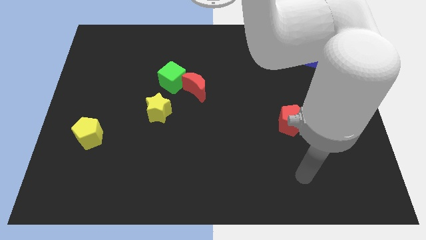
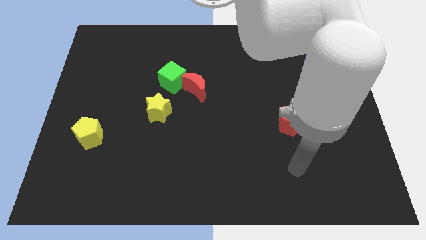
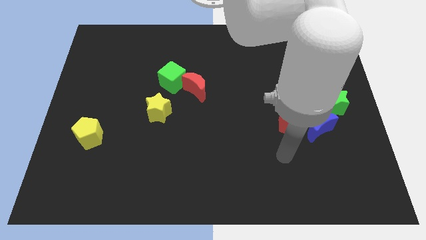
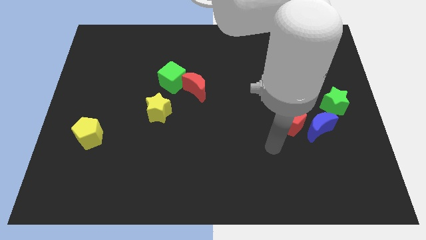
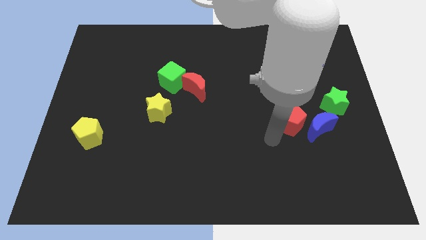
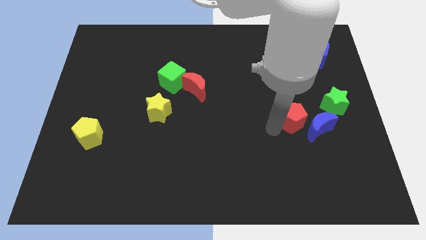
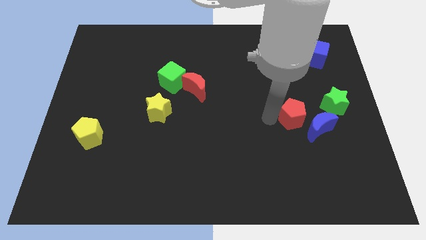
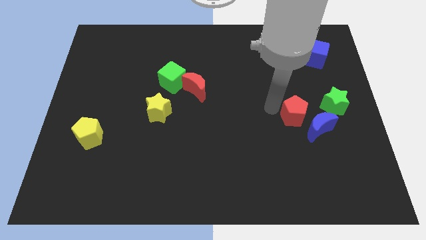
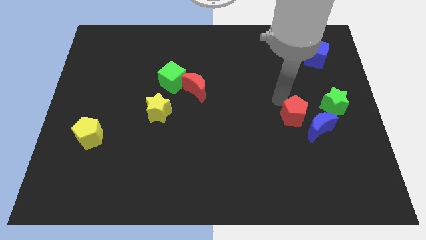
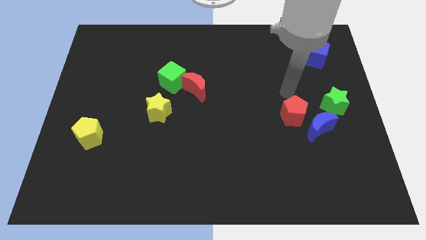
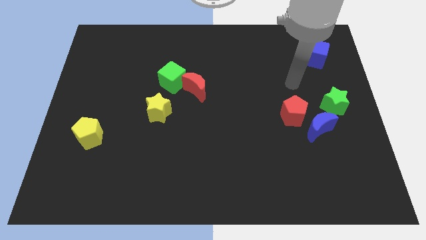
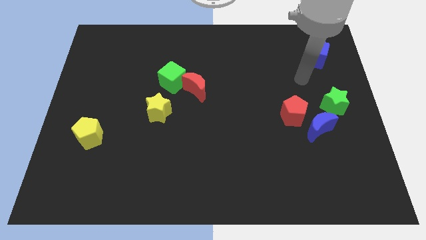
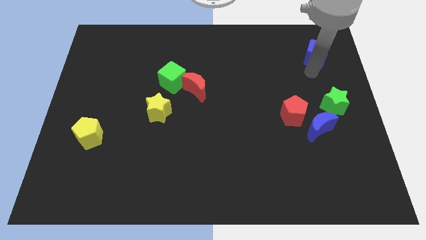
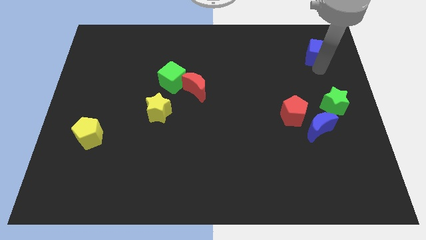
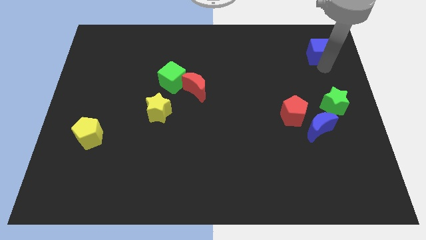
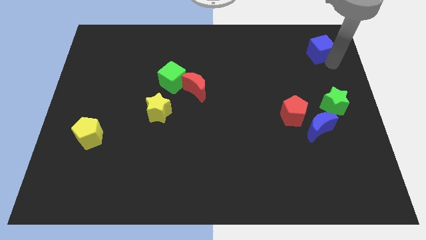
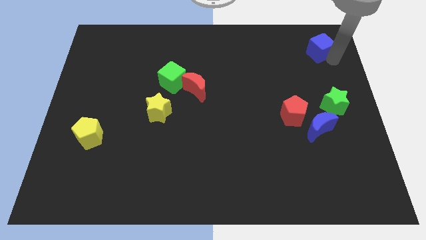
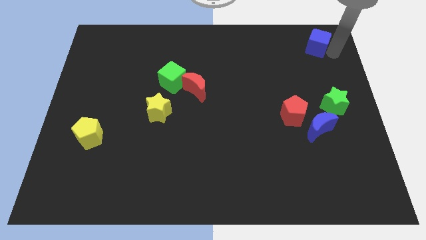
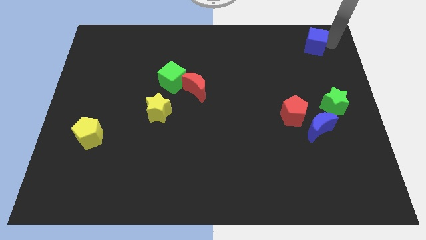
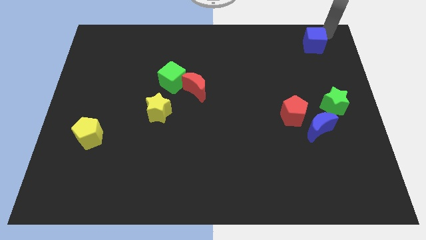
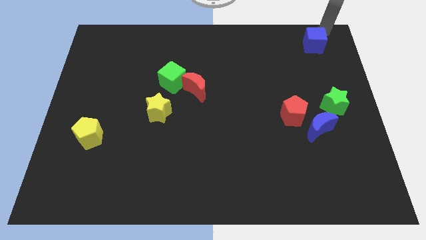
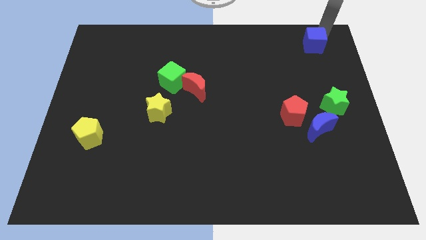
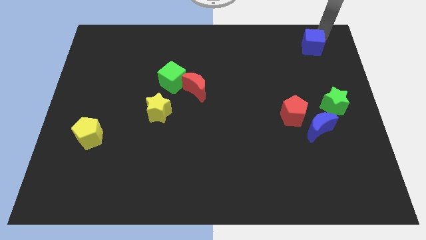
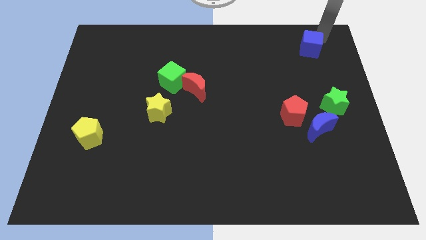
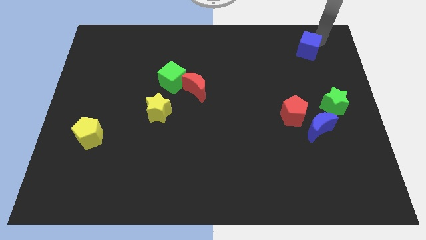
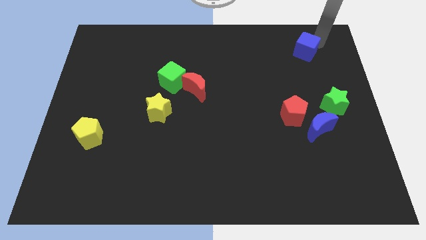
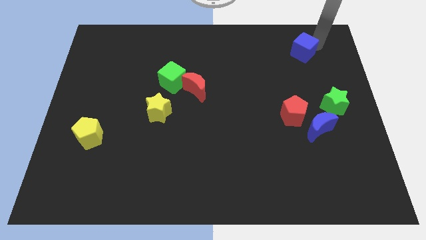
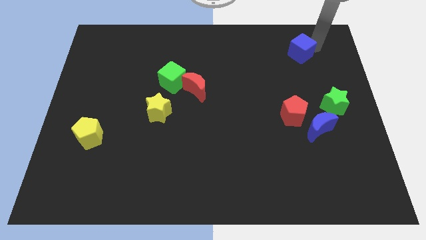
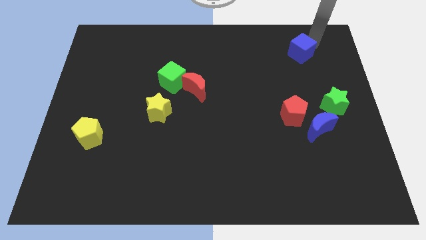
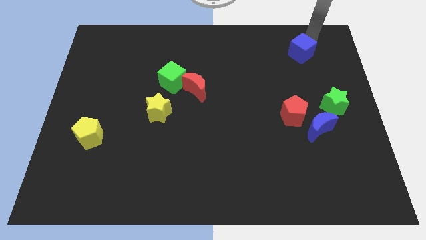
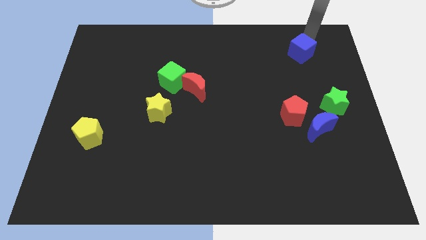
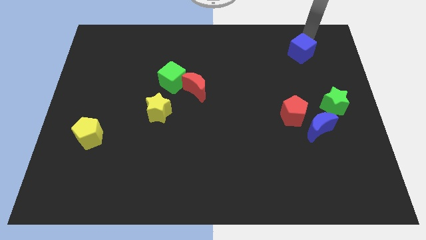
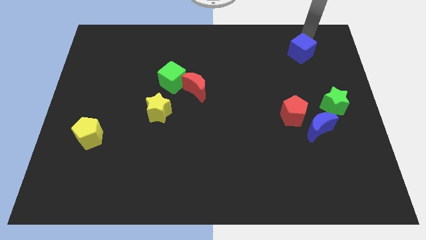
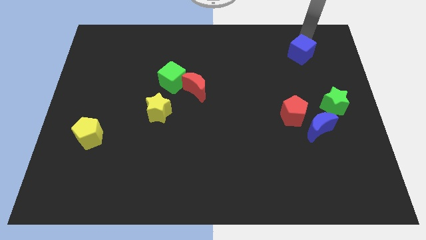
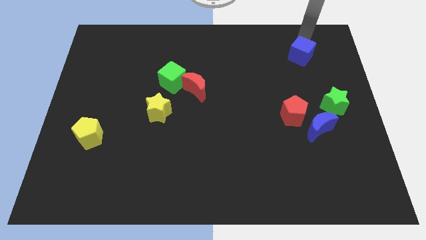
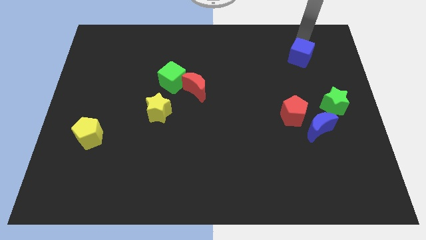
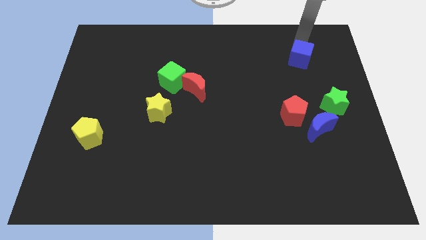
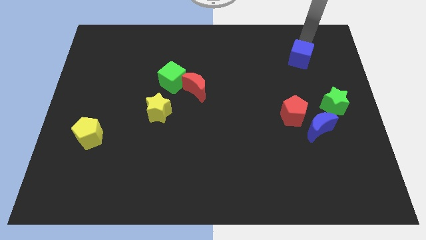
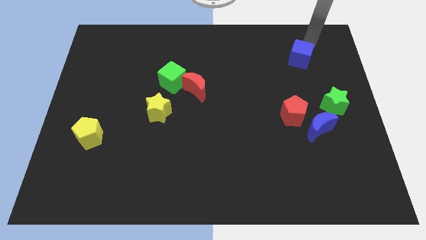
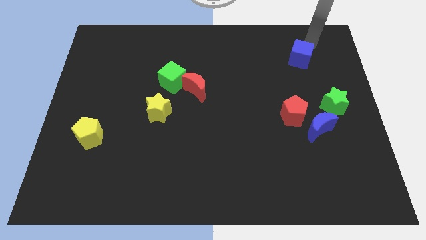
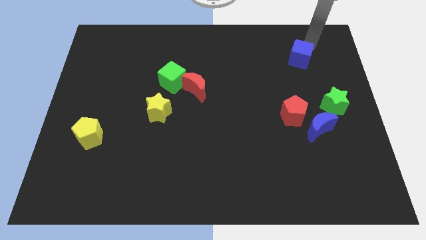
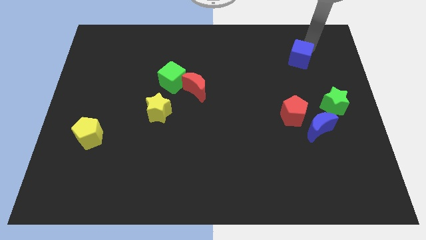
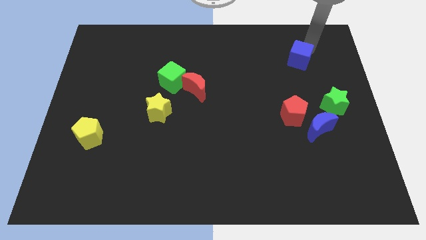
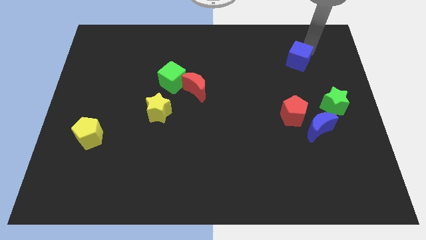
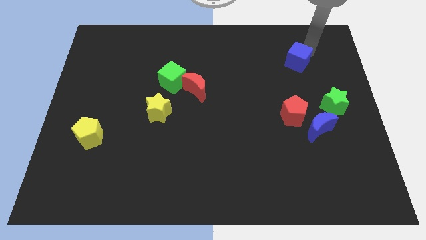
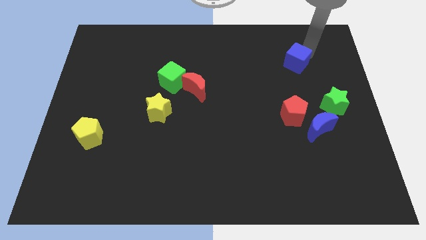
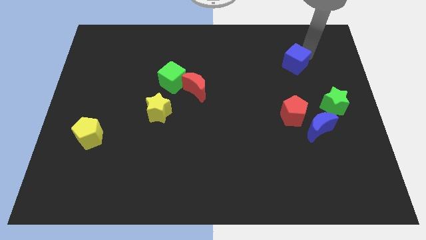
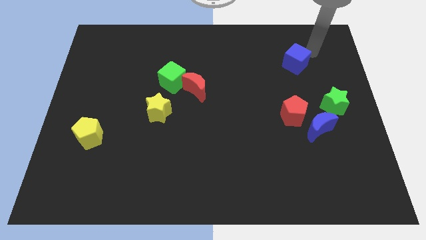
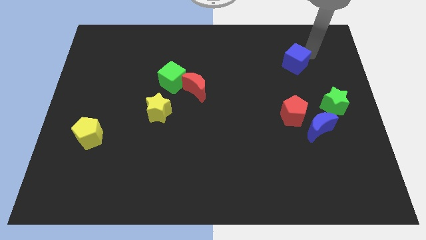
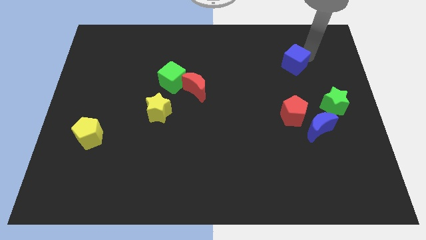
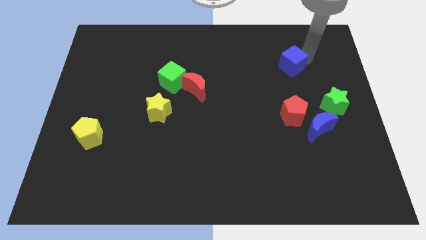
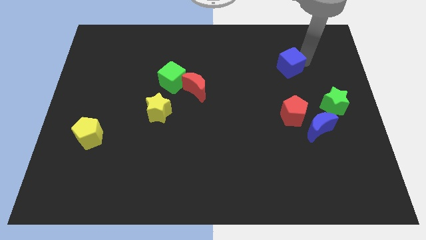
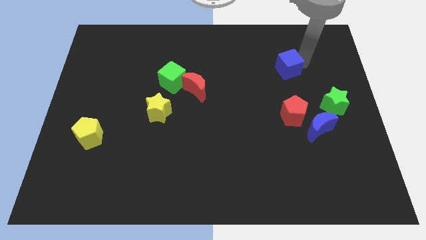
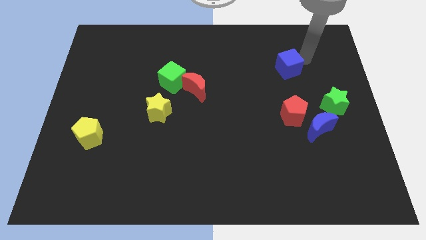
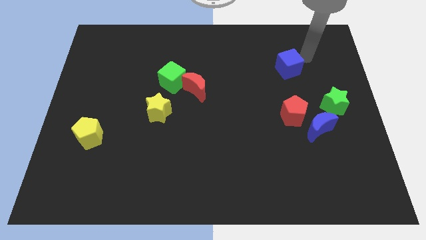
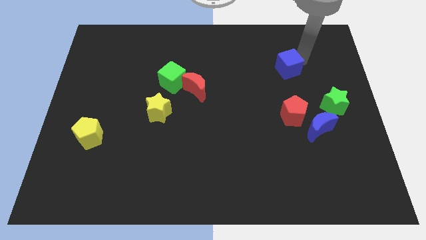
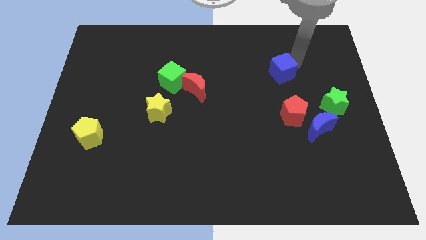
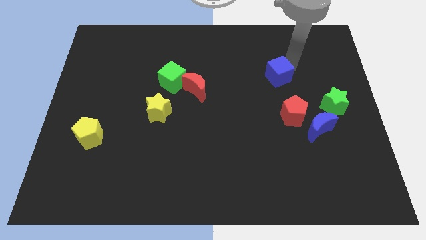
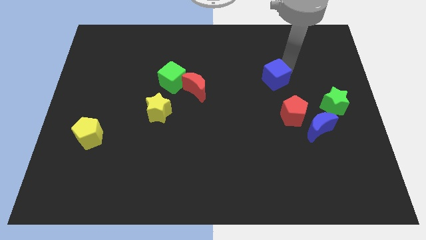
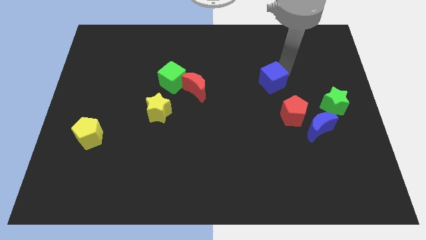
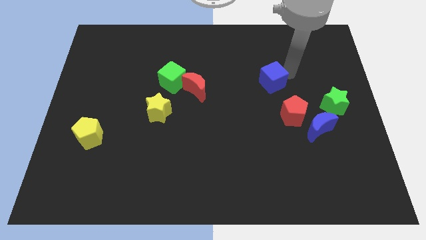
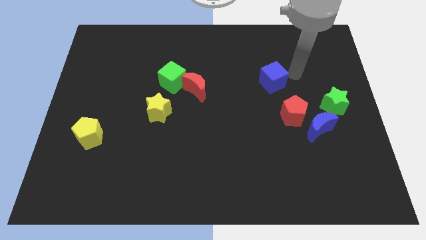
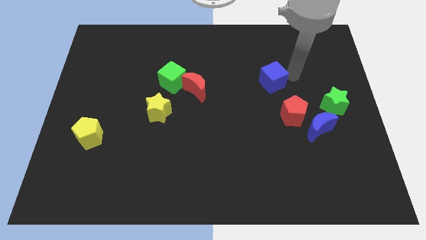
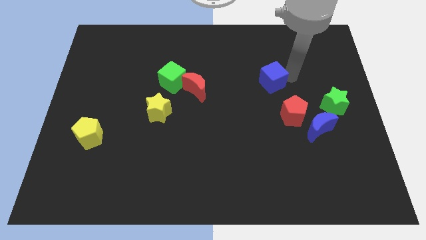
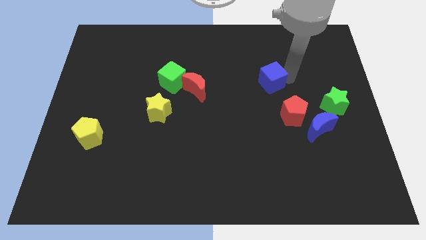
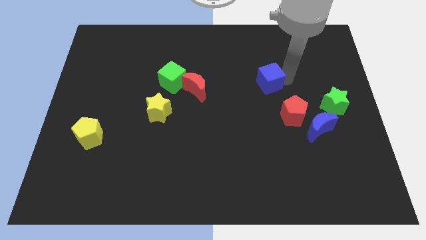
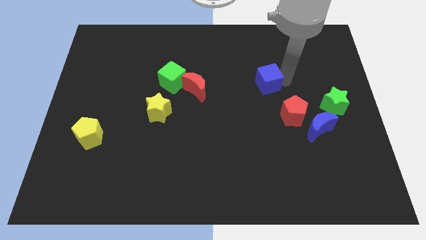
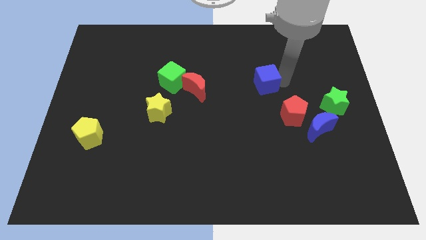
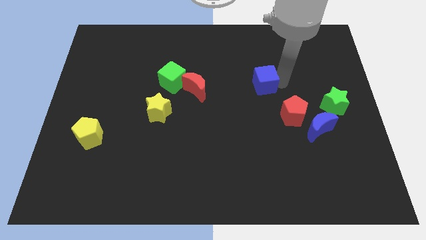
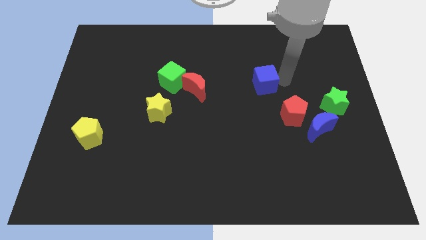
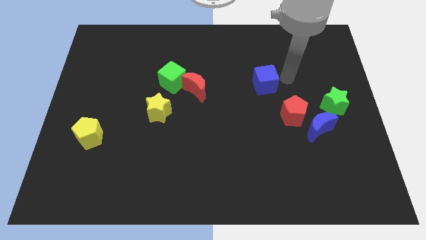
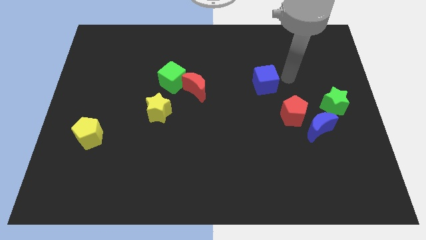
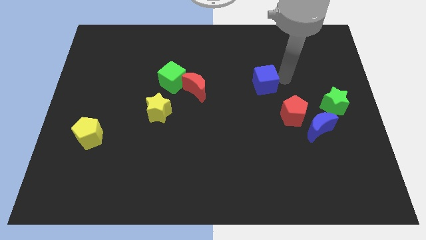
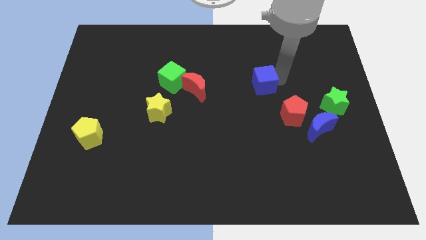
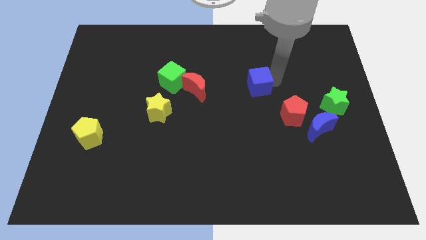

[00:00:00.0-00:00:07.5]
push the blue cube to the center of the board
